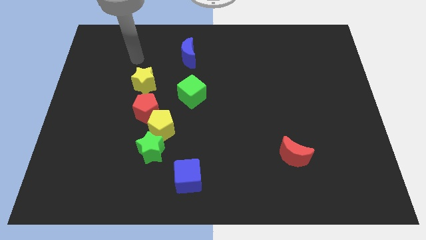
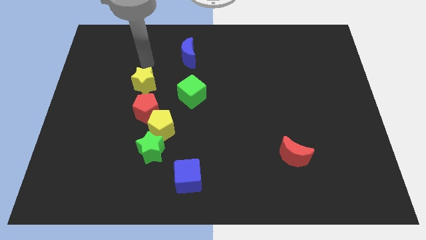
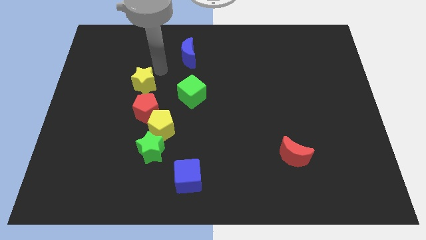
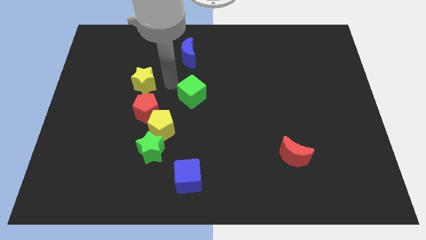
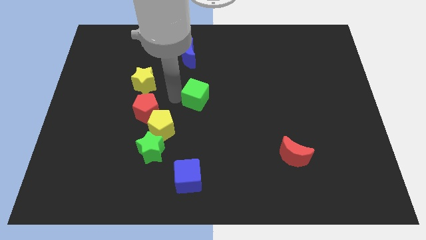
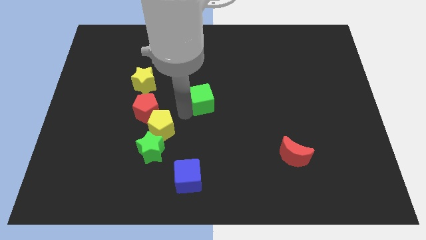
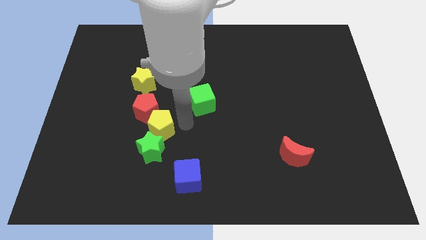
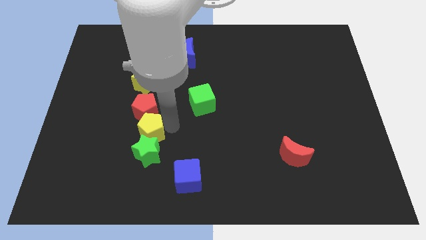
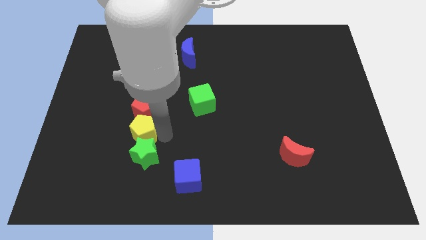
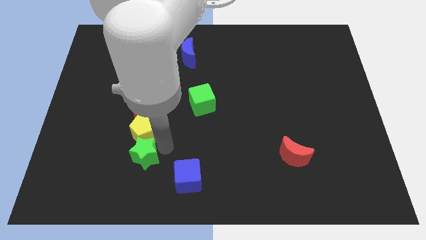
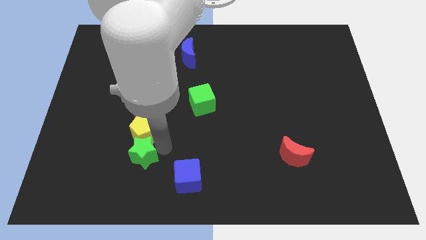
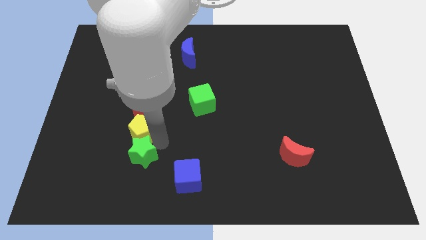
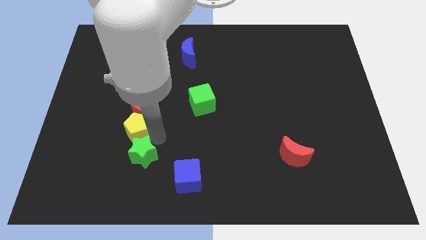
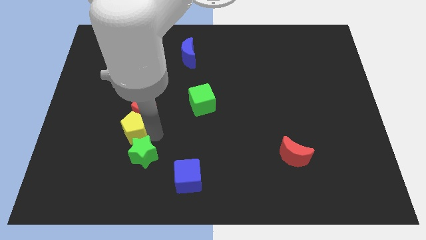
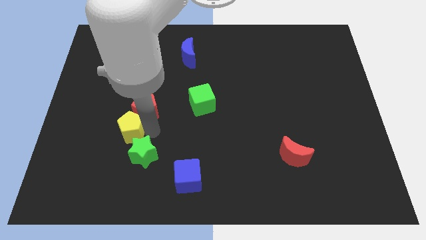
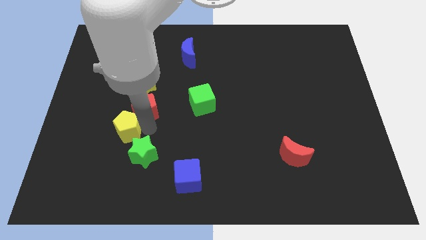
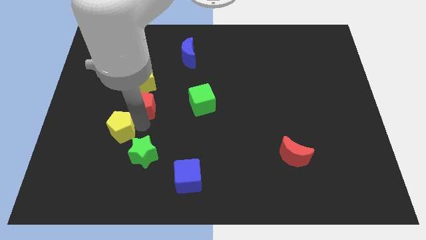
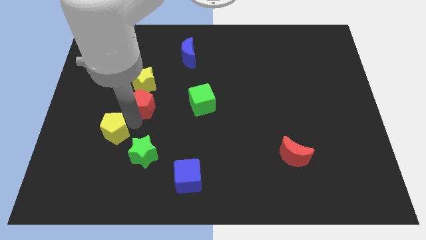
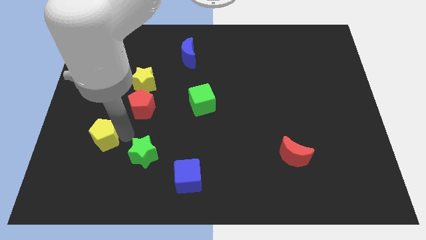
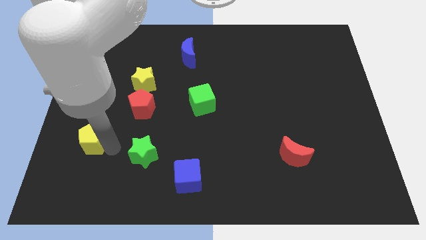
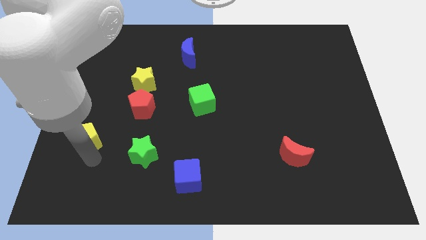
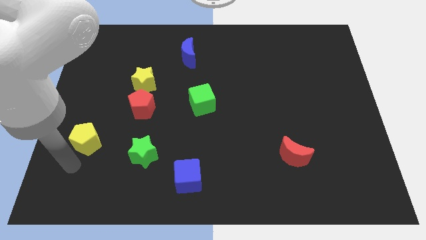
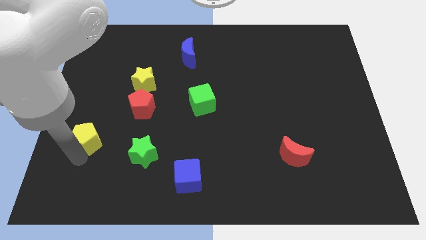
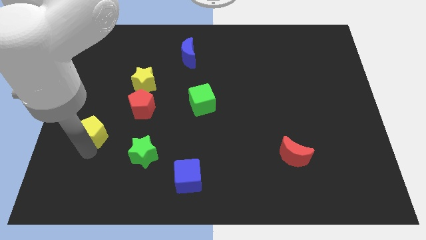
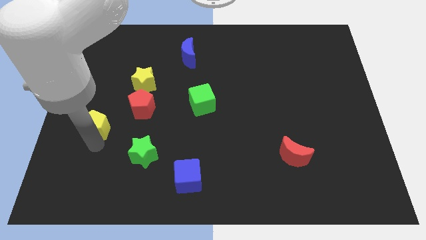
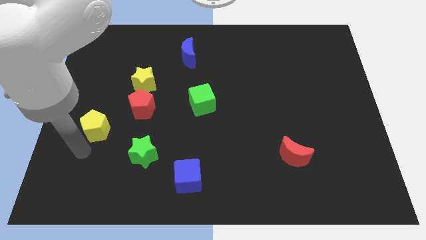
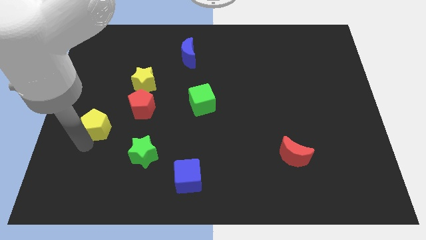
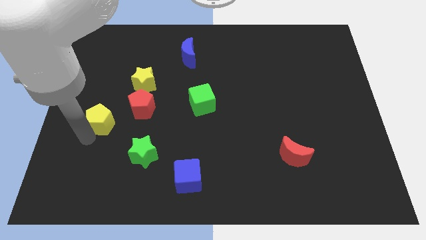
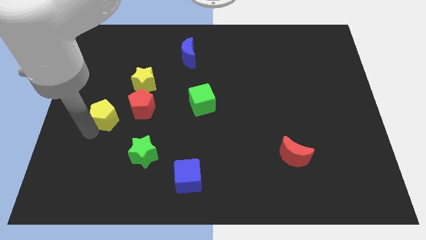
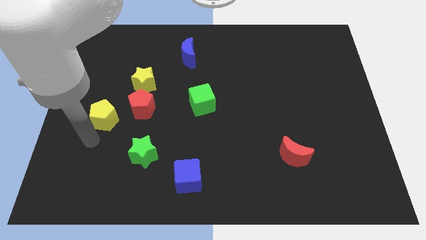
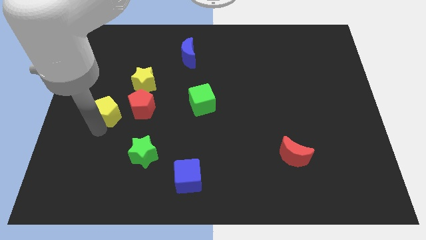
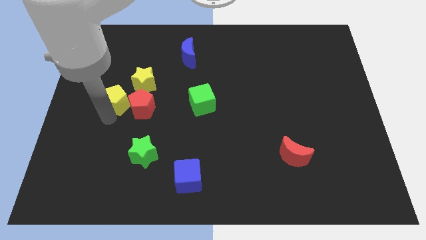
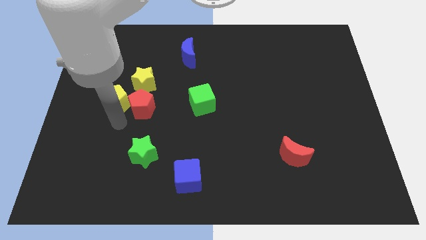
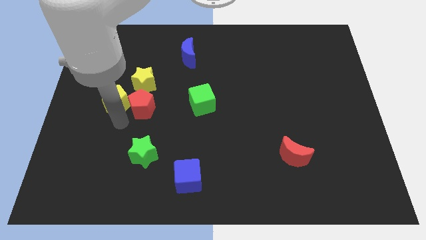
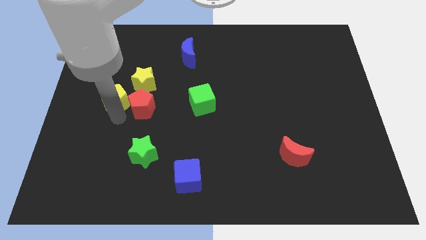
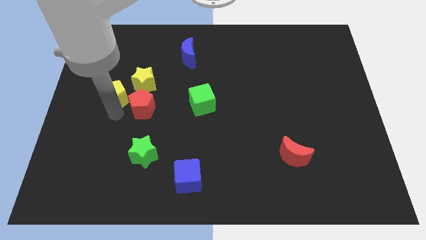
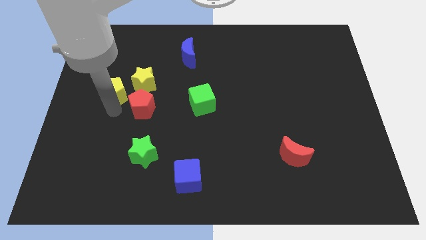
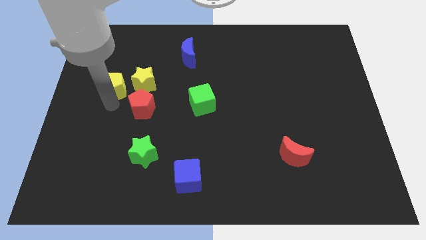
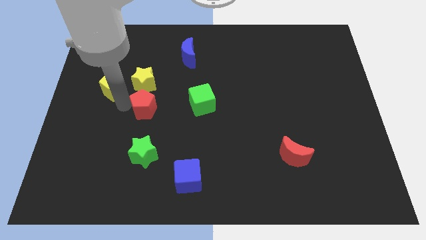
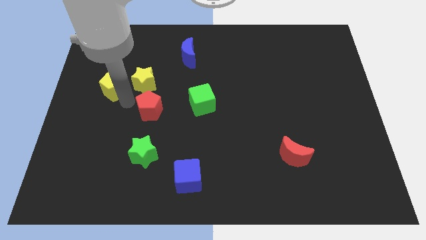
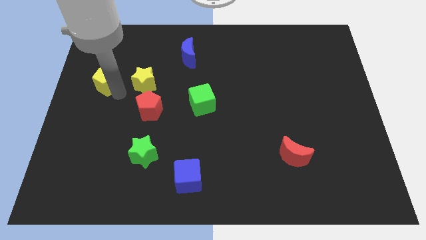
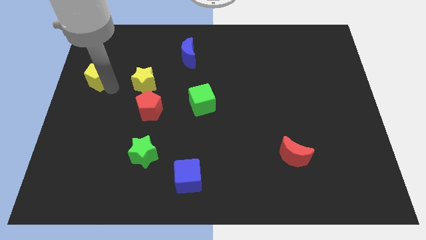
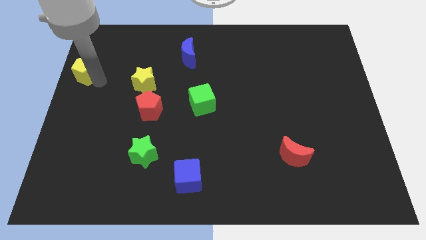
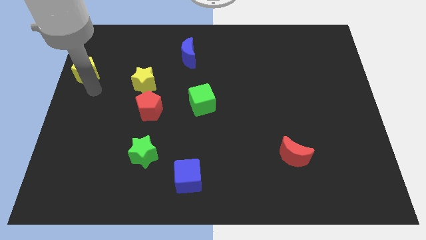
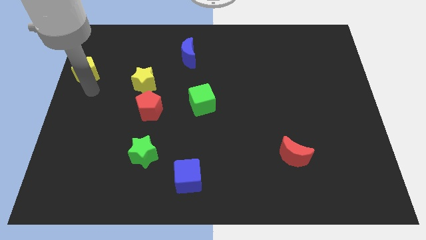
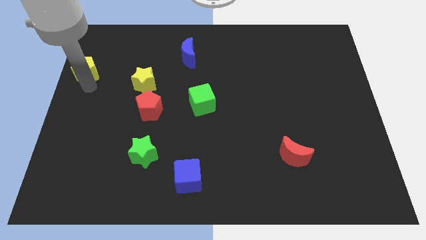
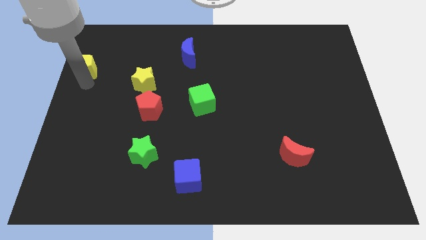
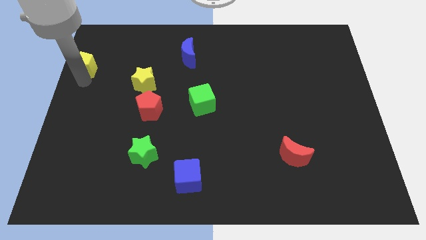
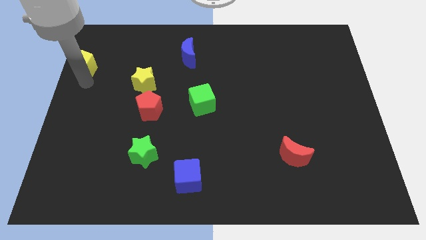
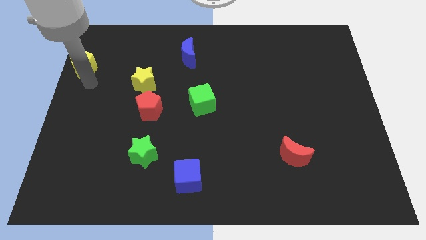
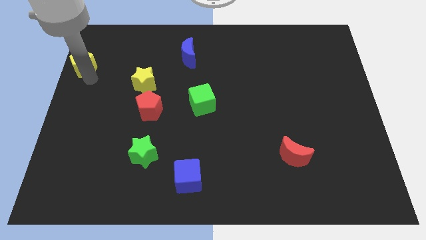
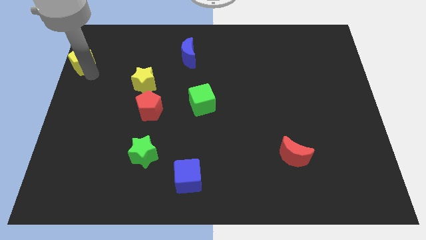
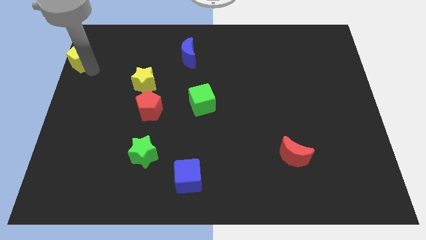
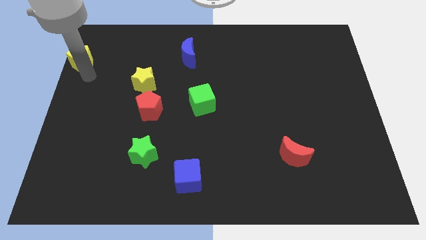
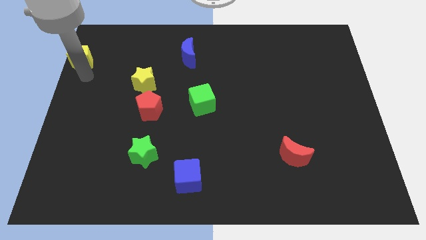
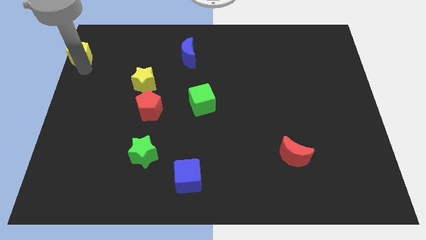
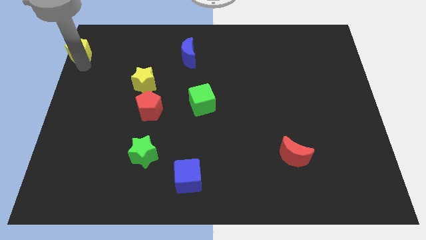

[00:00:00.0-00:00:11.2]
push the yellow pentagon to the top left of the board

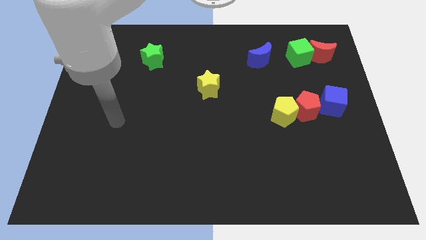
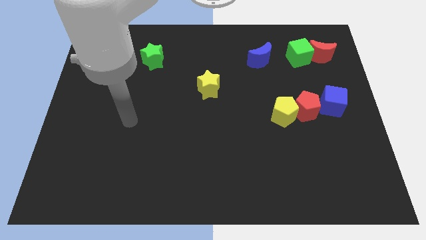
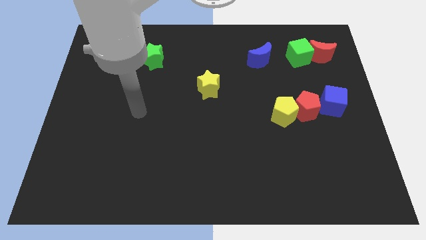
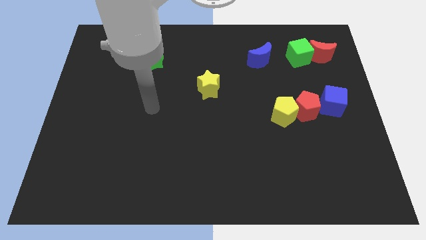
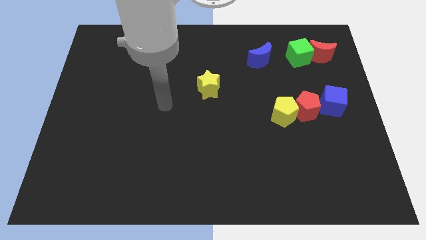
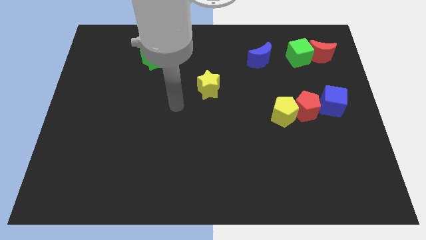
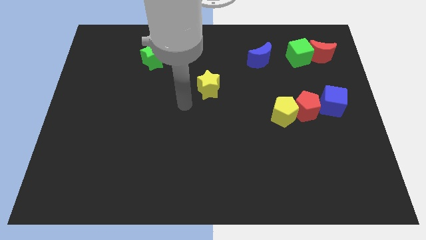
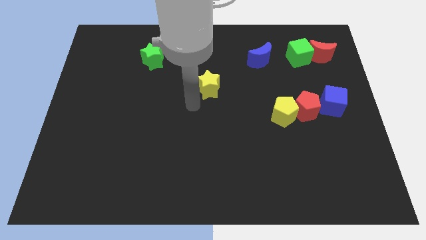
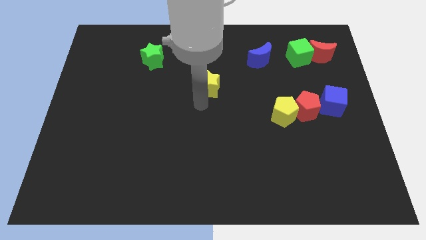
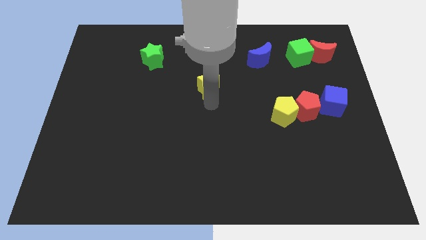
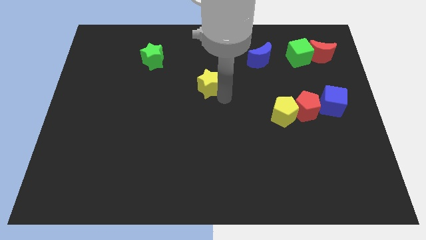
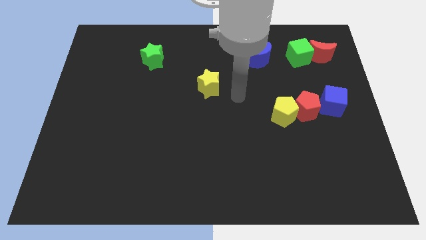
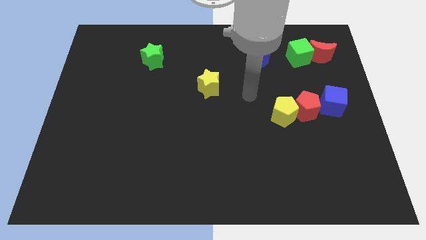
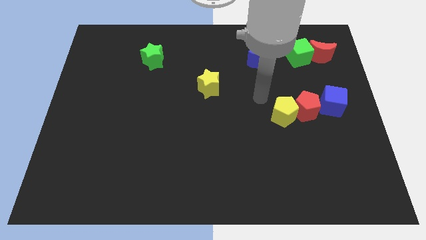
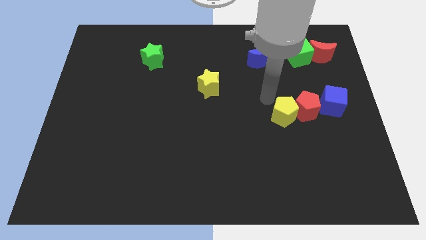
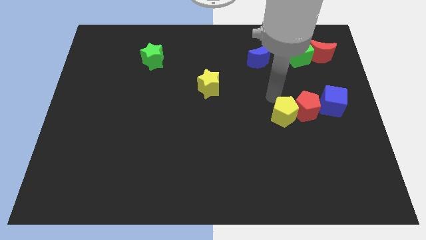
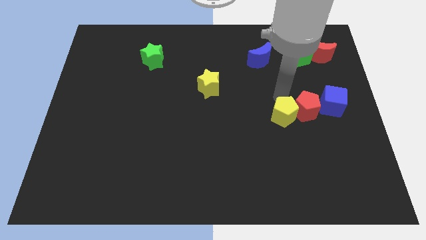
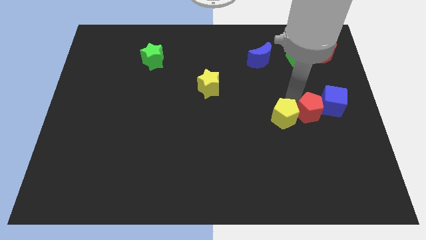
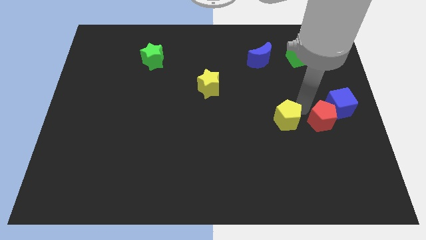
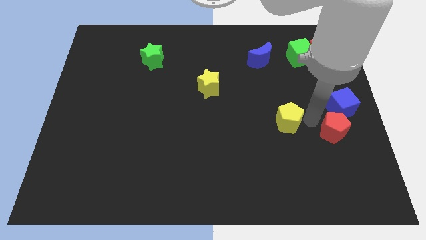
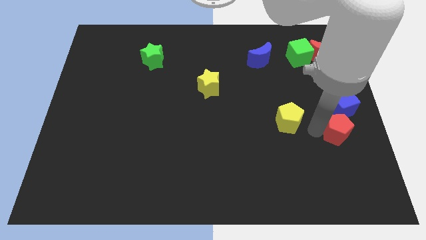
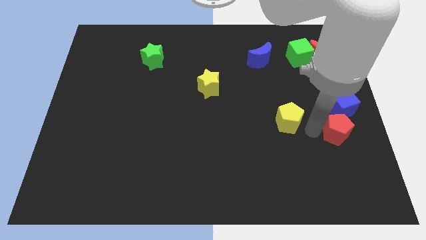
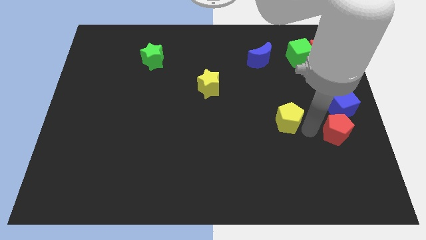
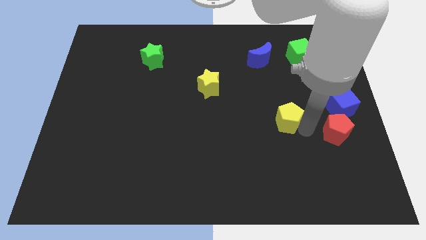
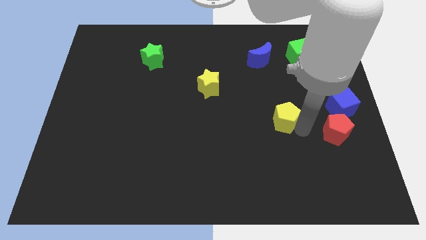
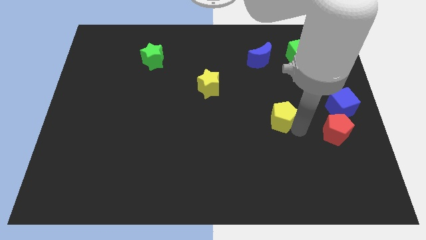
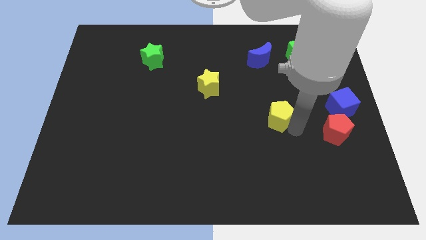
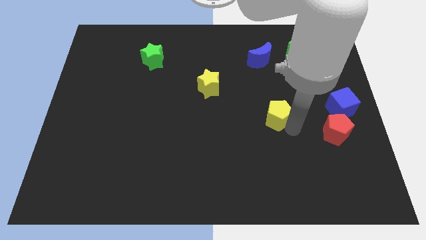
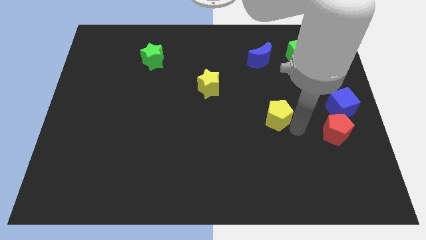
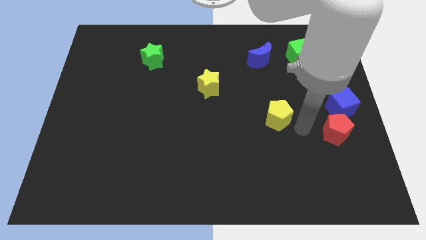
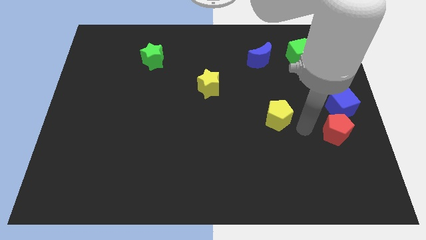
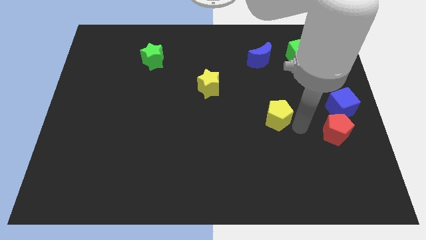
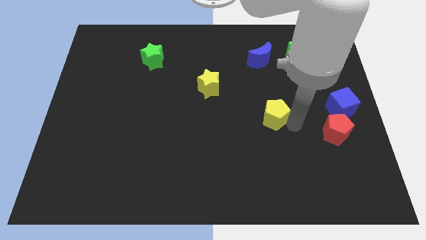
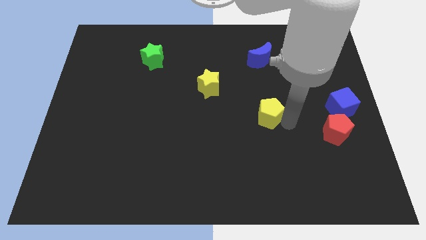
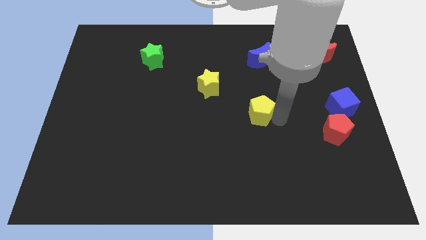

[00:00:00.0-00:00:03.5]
put the yellow pentagon to the middle of the board
